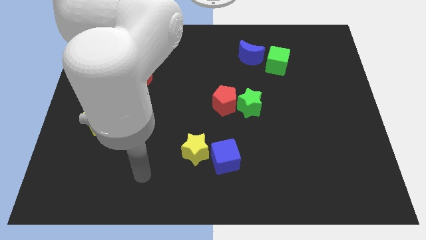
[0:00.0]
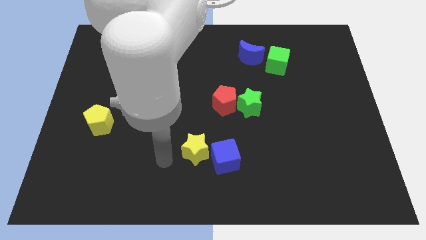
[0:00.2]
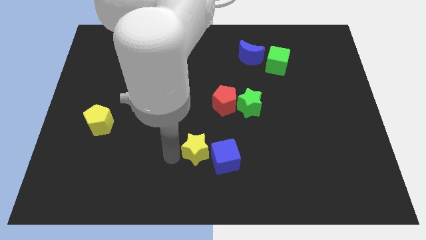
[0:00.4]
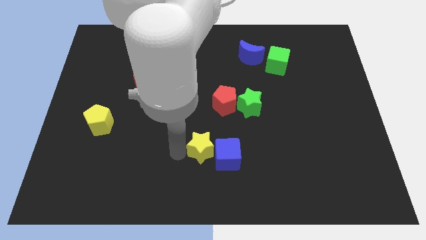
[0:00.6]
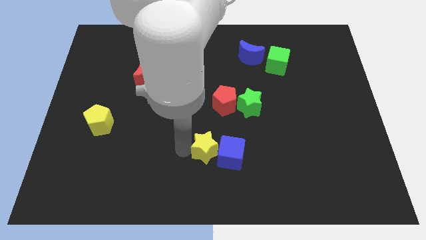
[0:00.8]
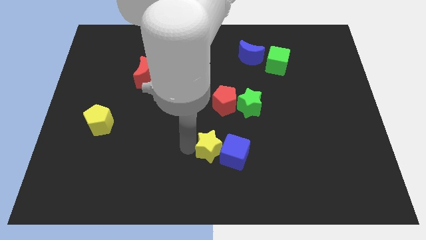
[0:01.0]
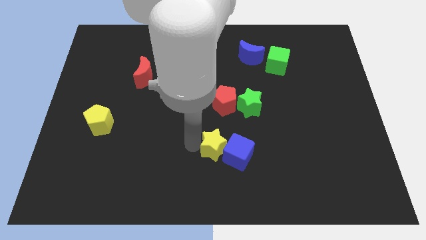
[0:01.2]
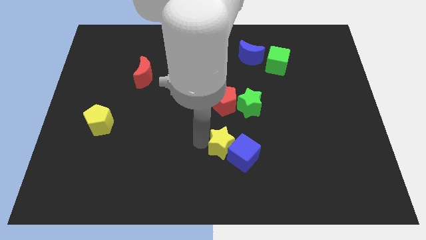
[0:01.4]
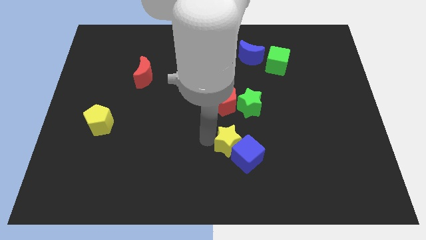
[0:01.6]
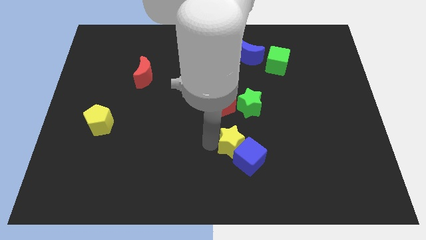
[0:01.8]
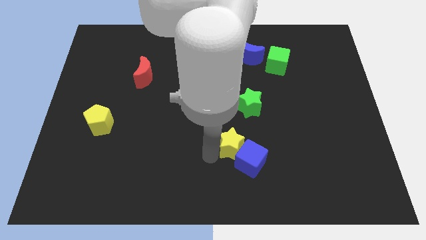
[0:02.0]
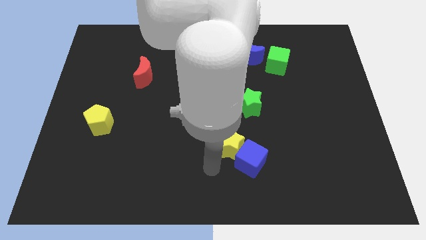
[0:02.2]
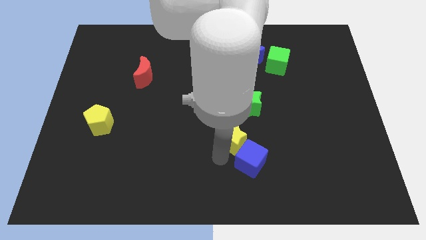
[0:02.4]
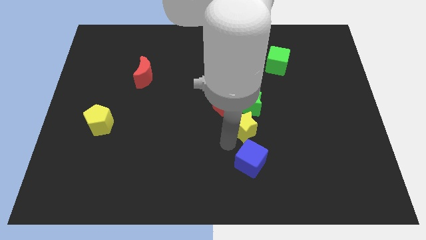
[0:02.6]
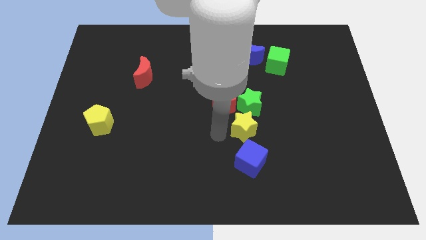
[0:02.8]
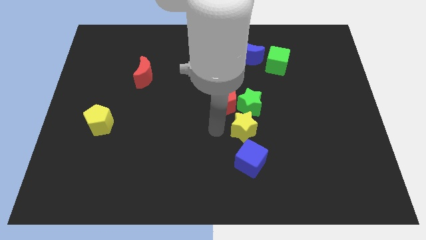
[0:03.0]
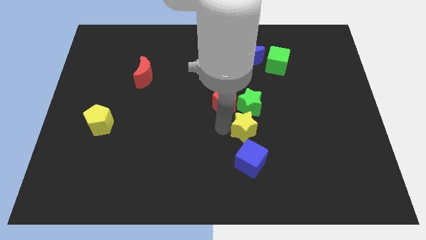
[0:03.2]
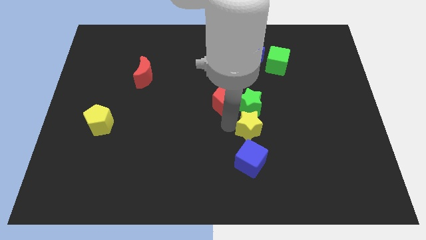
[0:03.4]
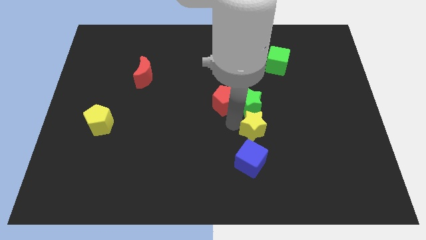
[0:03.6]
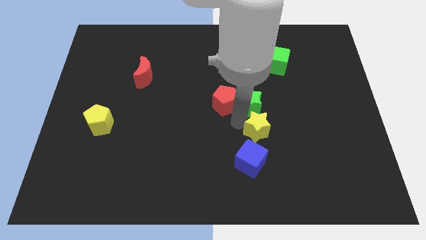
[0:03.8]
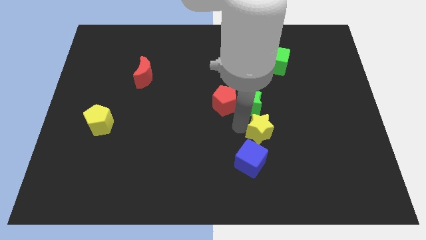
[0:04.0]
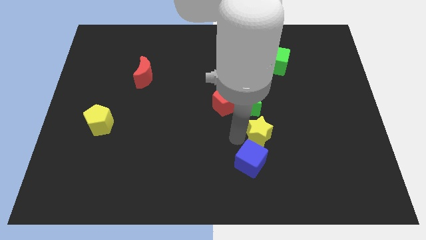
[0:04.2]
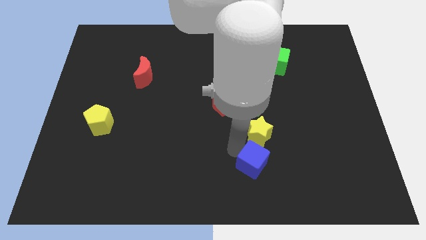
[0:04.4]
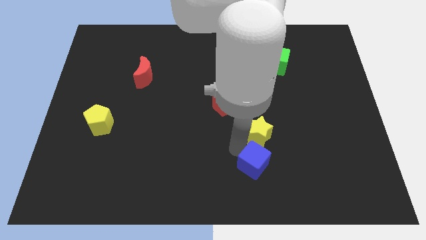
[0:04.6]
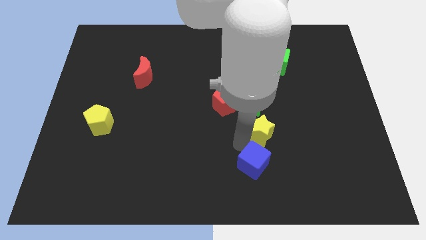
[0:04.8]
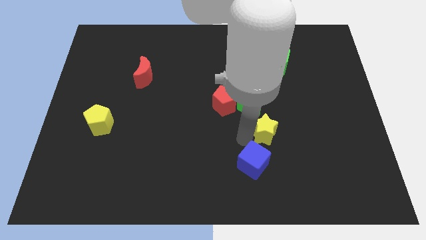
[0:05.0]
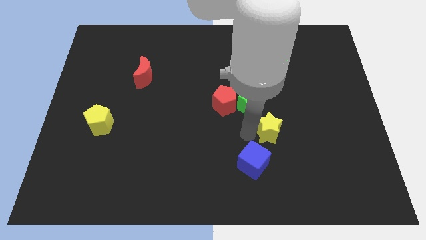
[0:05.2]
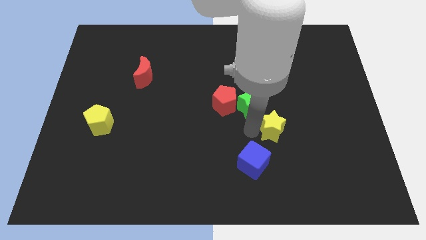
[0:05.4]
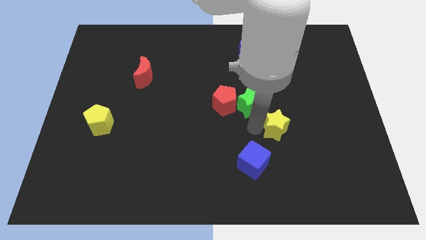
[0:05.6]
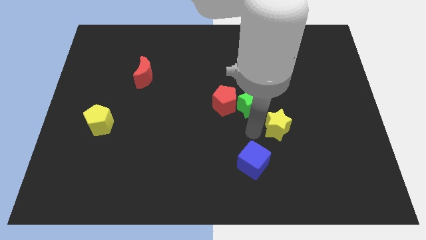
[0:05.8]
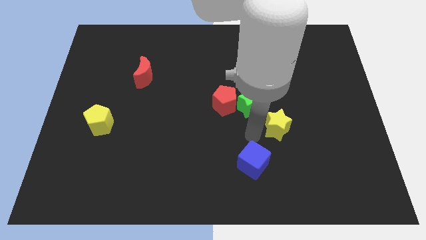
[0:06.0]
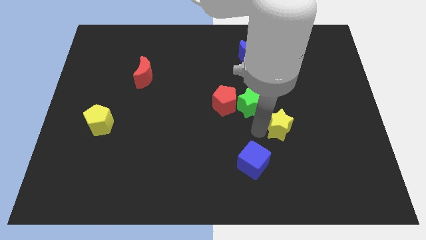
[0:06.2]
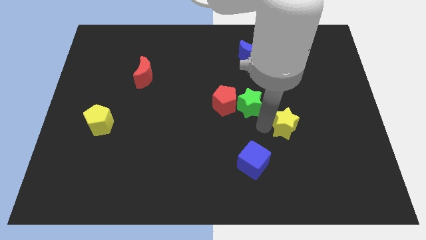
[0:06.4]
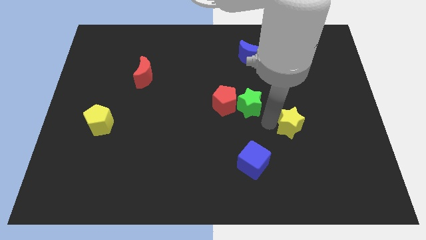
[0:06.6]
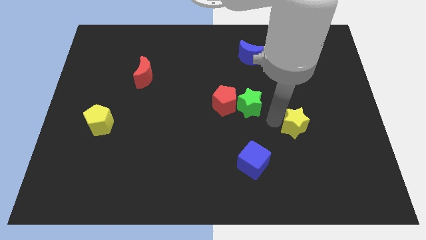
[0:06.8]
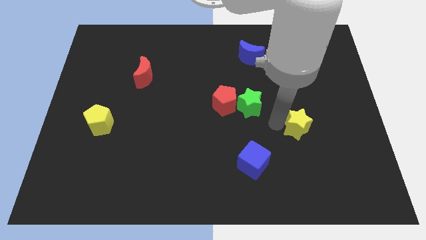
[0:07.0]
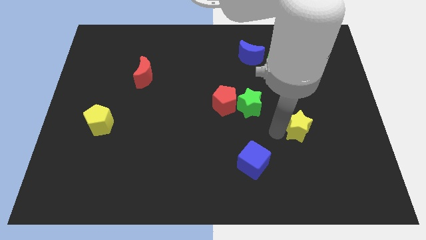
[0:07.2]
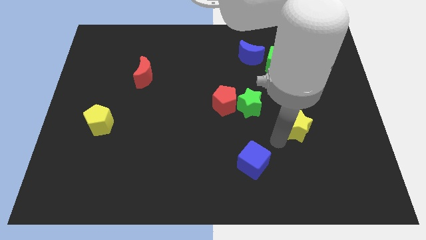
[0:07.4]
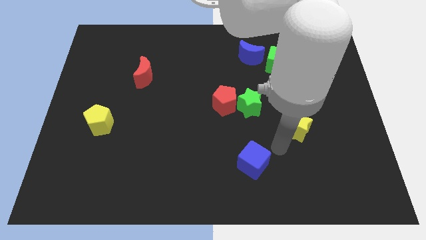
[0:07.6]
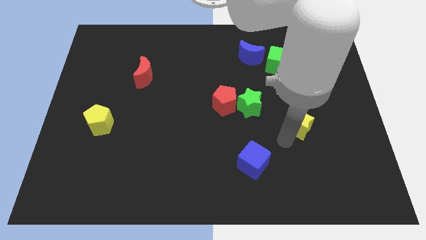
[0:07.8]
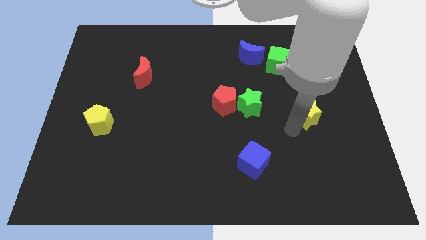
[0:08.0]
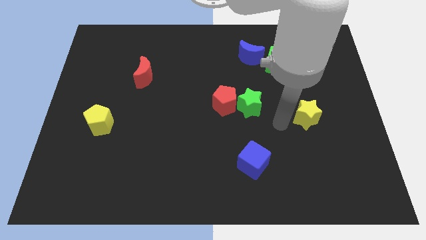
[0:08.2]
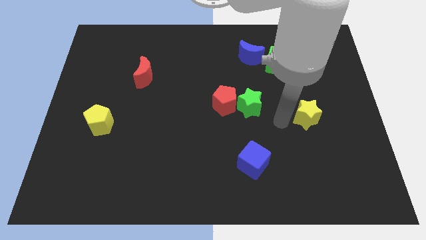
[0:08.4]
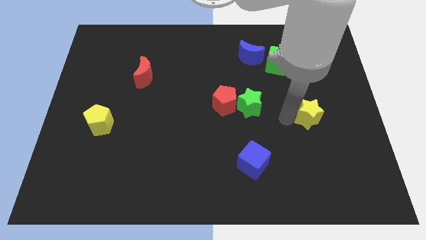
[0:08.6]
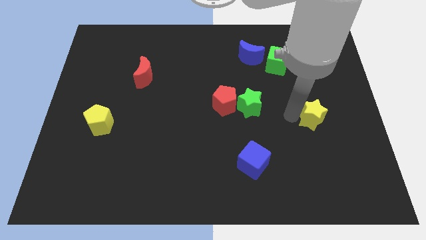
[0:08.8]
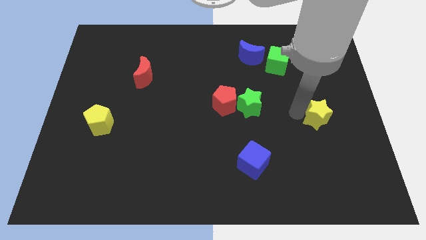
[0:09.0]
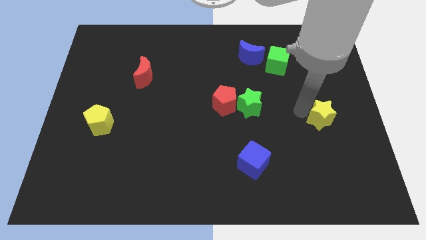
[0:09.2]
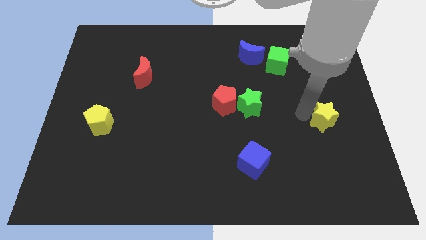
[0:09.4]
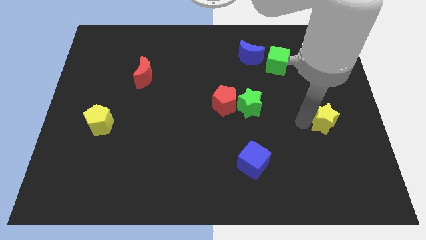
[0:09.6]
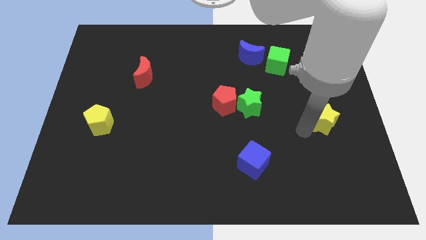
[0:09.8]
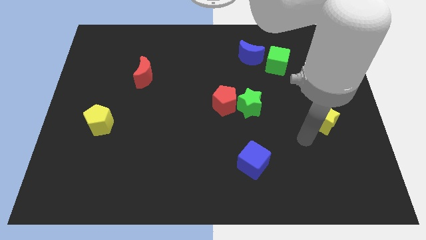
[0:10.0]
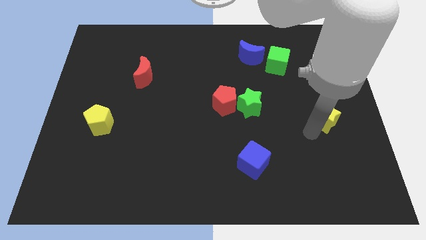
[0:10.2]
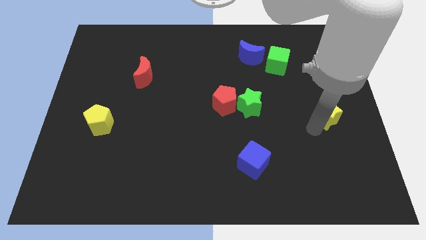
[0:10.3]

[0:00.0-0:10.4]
move the yellow star to the right side
